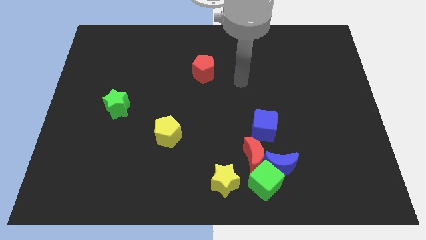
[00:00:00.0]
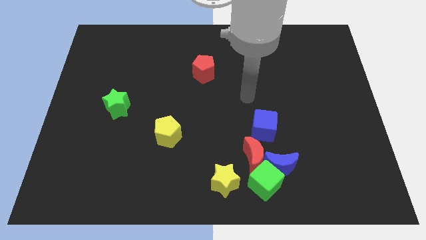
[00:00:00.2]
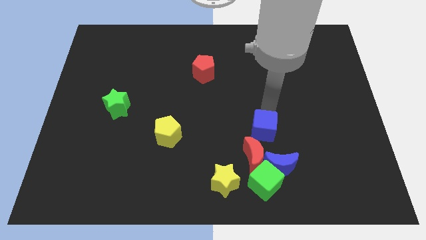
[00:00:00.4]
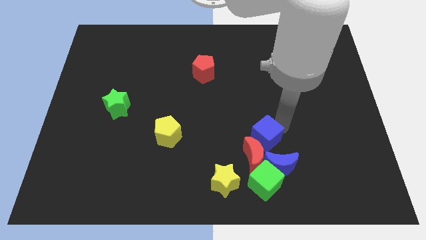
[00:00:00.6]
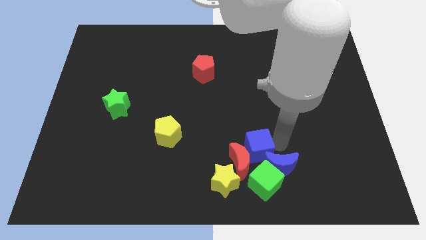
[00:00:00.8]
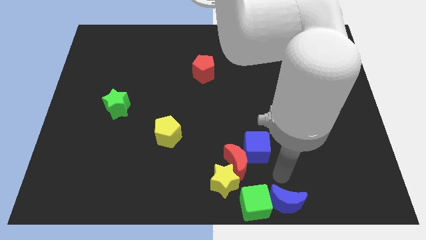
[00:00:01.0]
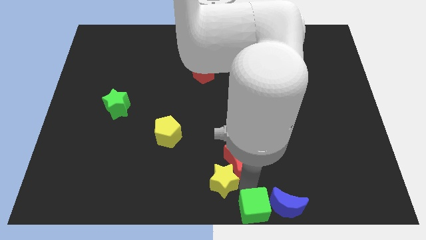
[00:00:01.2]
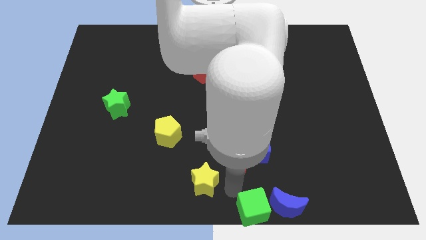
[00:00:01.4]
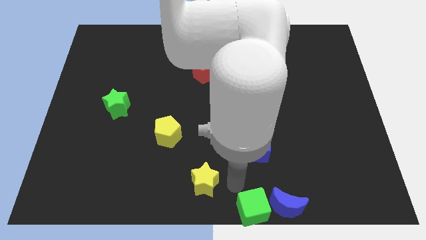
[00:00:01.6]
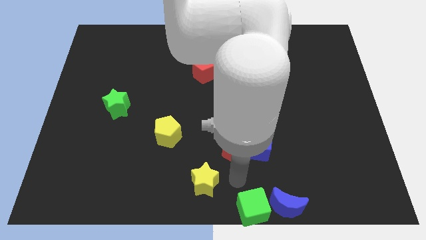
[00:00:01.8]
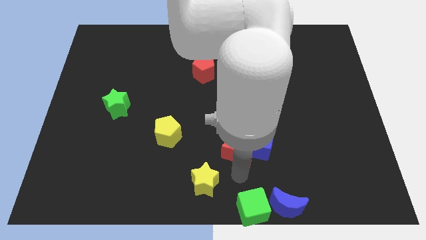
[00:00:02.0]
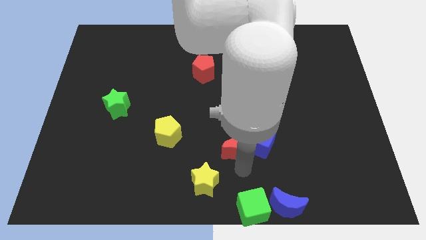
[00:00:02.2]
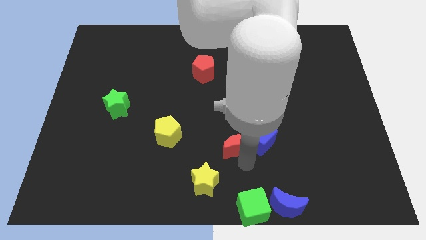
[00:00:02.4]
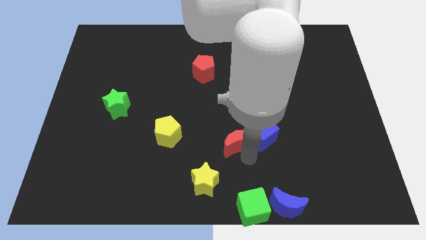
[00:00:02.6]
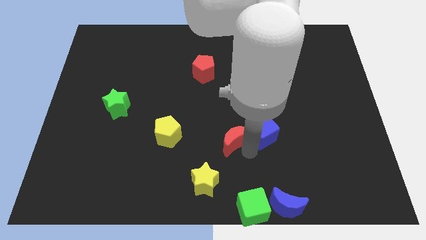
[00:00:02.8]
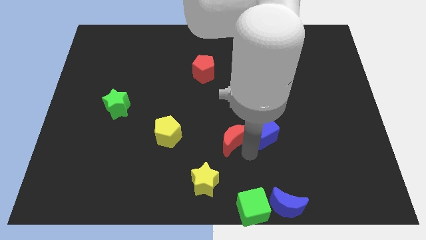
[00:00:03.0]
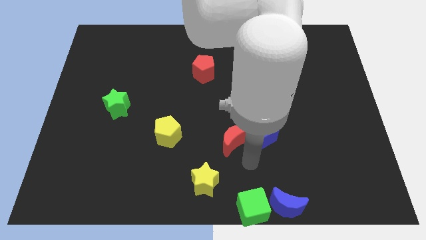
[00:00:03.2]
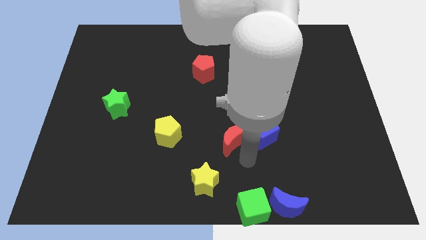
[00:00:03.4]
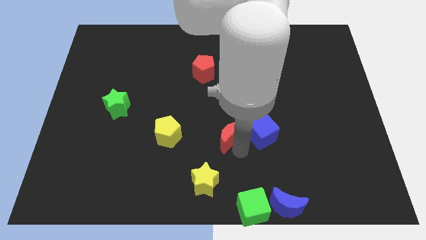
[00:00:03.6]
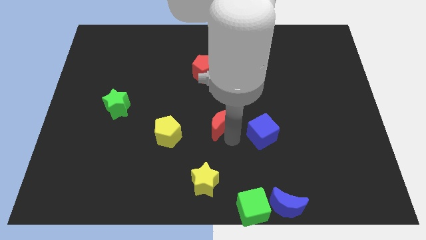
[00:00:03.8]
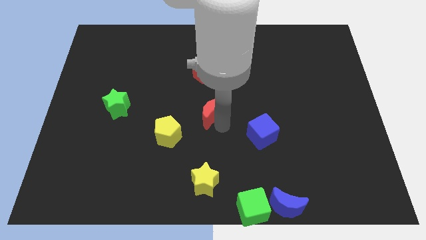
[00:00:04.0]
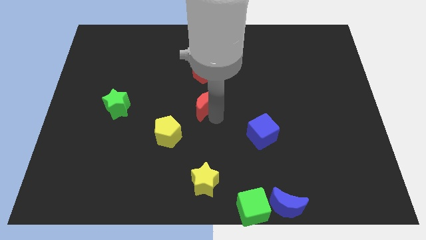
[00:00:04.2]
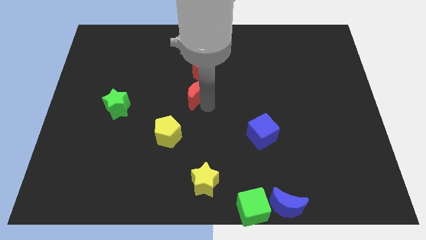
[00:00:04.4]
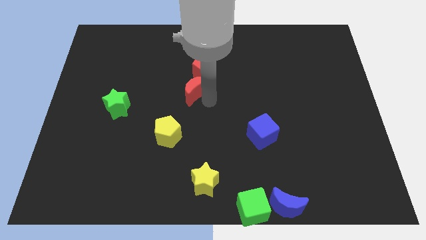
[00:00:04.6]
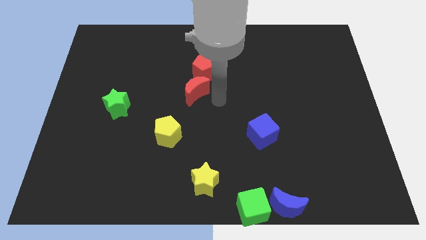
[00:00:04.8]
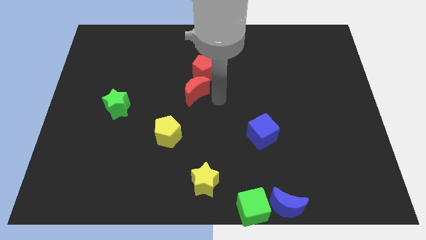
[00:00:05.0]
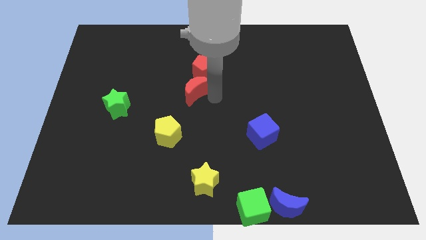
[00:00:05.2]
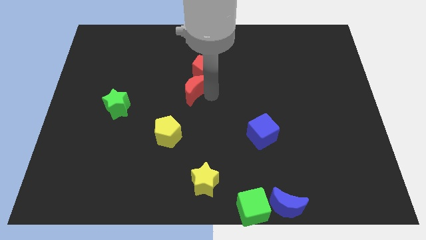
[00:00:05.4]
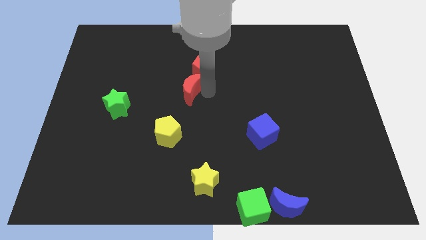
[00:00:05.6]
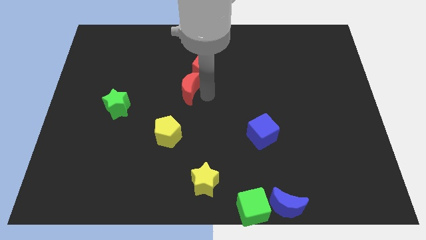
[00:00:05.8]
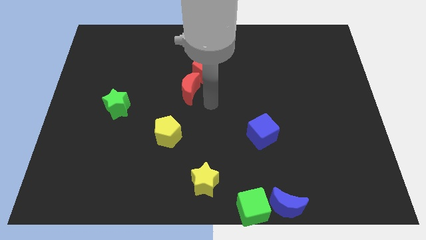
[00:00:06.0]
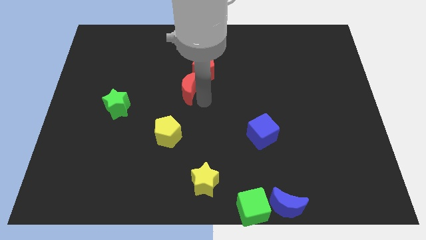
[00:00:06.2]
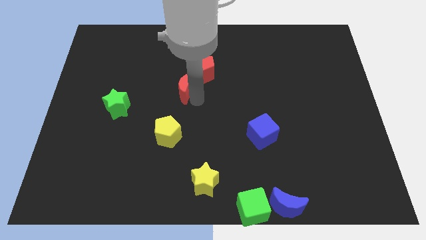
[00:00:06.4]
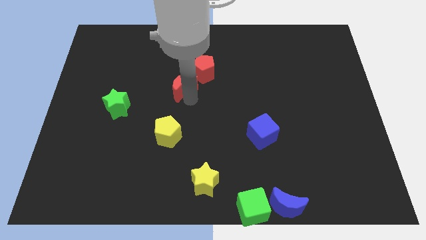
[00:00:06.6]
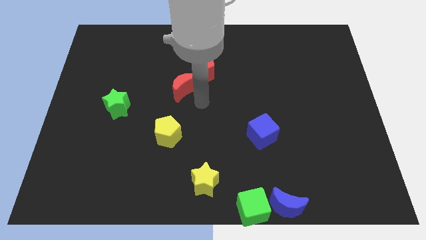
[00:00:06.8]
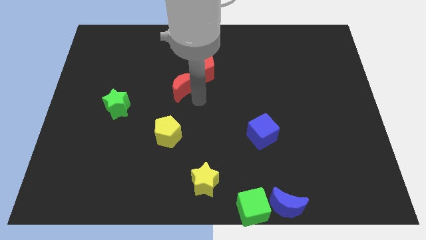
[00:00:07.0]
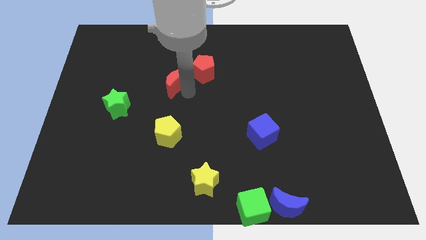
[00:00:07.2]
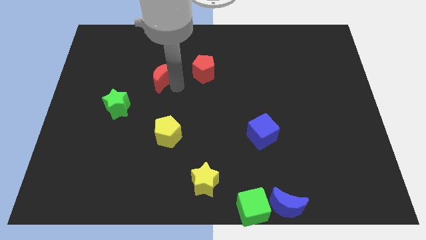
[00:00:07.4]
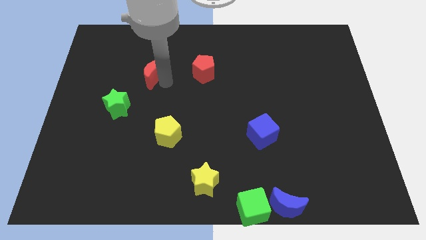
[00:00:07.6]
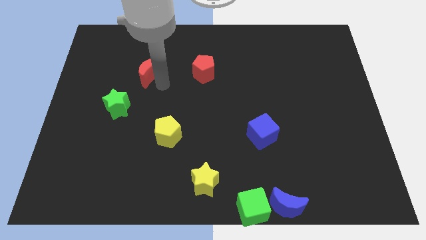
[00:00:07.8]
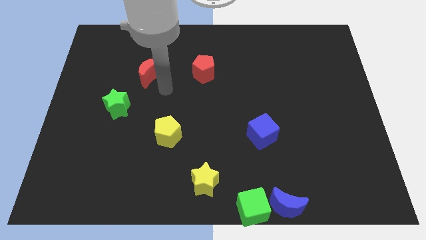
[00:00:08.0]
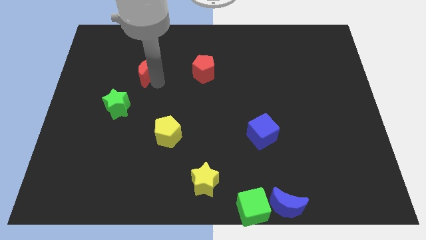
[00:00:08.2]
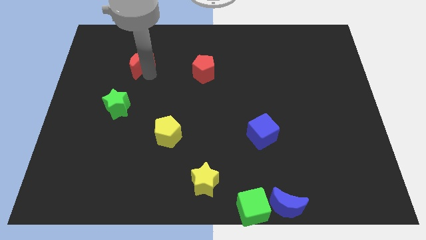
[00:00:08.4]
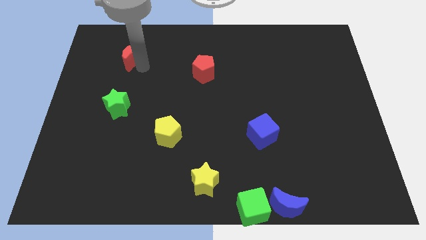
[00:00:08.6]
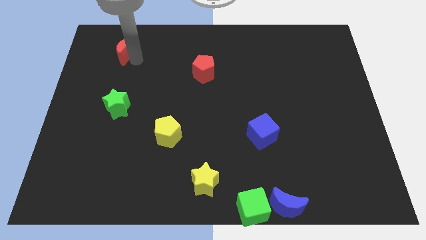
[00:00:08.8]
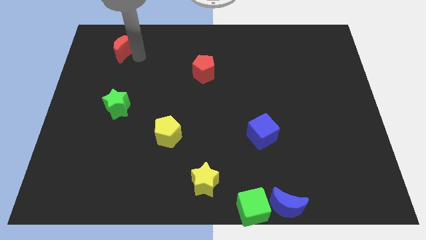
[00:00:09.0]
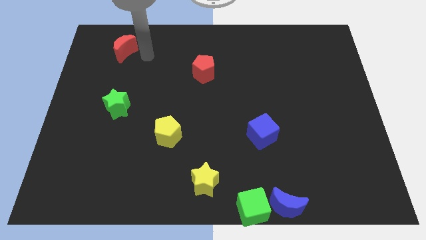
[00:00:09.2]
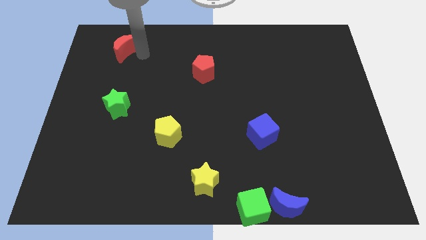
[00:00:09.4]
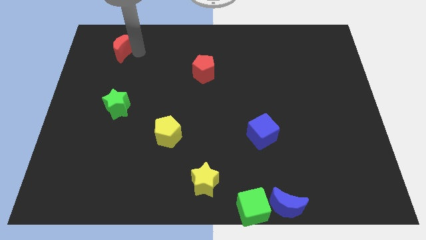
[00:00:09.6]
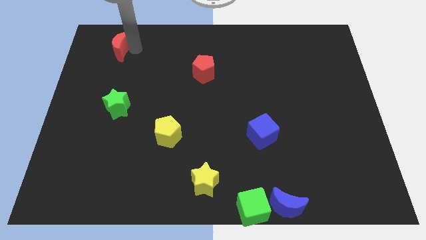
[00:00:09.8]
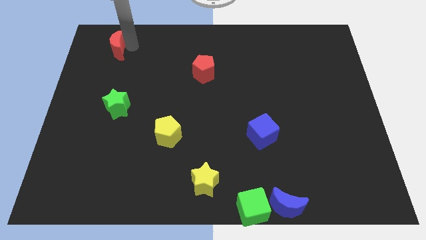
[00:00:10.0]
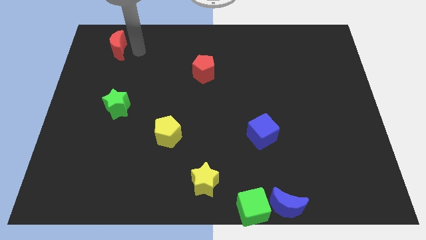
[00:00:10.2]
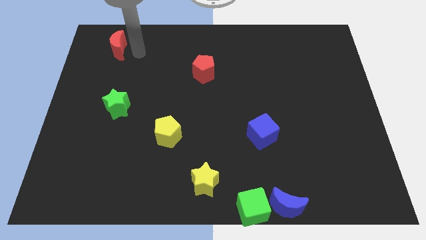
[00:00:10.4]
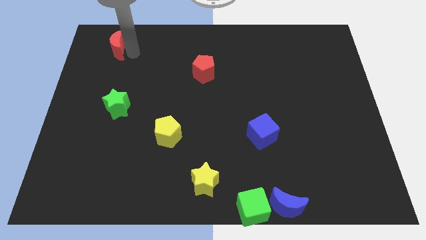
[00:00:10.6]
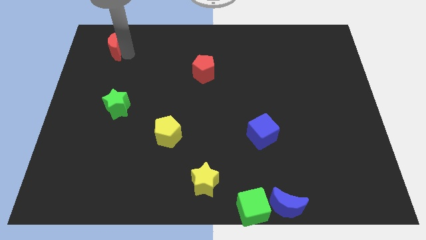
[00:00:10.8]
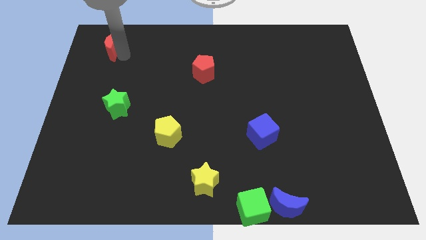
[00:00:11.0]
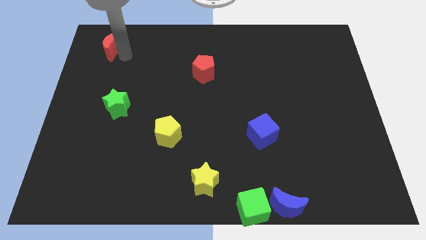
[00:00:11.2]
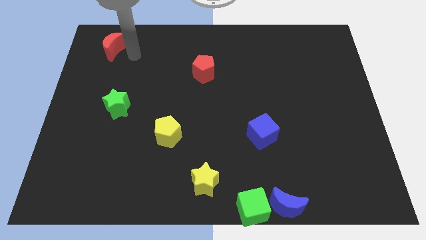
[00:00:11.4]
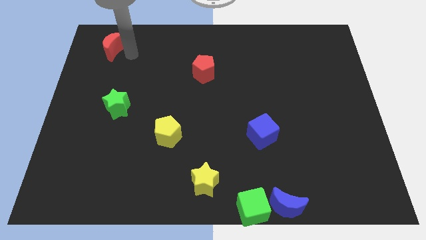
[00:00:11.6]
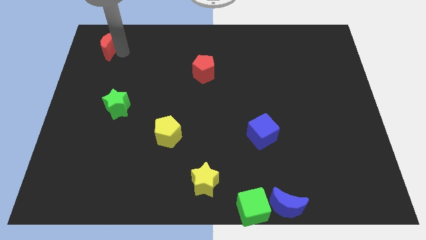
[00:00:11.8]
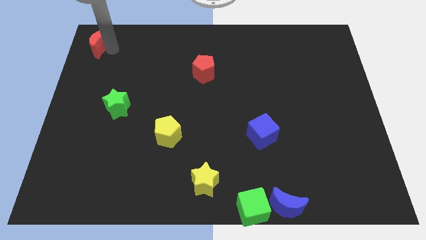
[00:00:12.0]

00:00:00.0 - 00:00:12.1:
slide the red moon to the upper left corner
